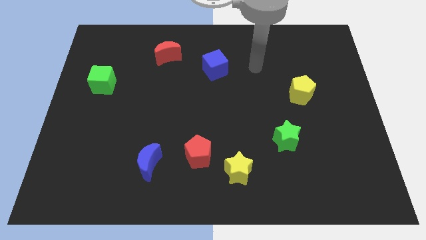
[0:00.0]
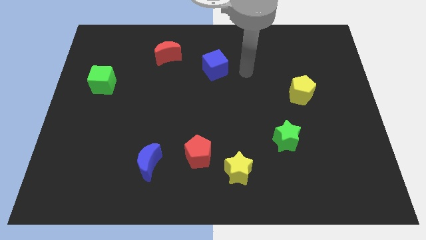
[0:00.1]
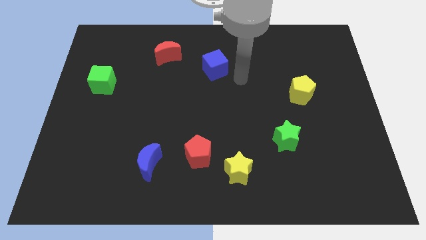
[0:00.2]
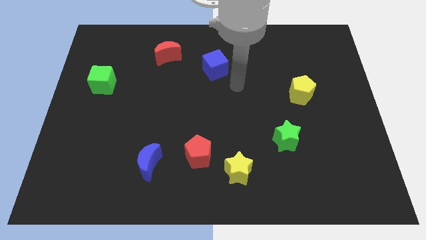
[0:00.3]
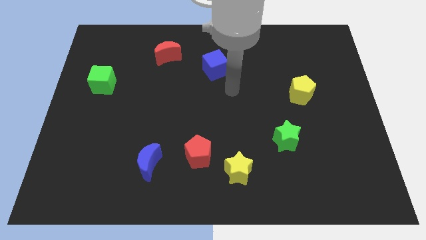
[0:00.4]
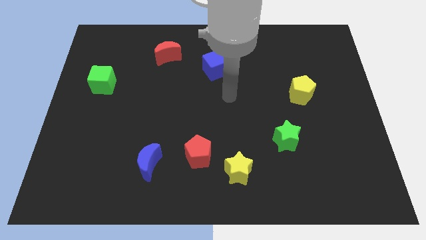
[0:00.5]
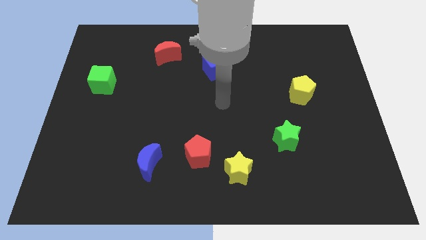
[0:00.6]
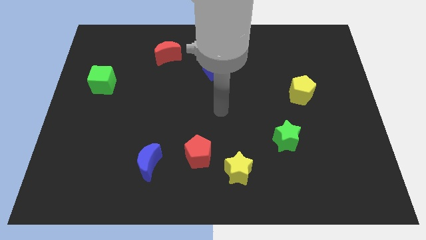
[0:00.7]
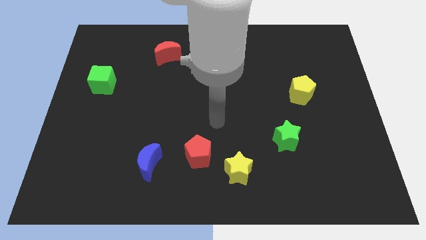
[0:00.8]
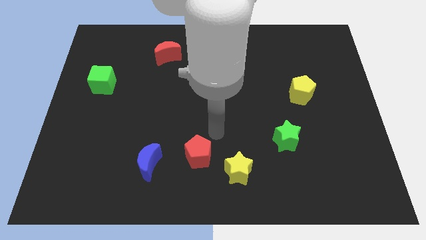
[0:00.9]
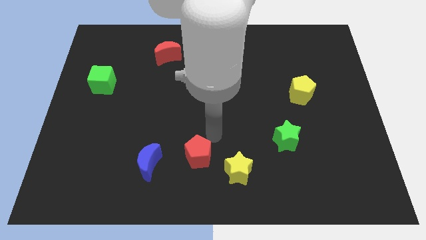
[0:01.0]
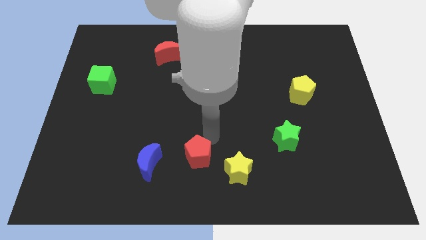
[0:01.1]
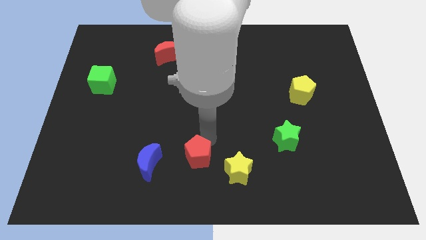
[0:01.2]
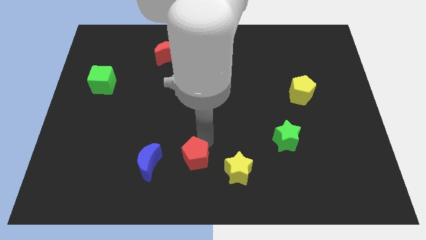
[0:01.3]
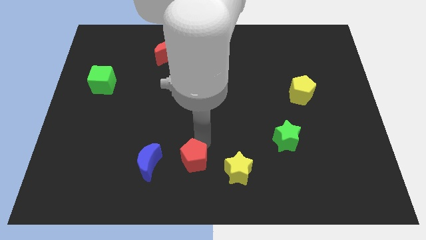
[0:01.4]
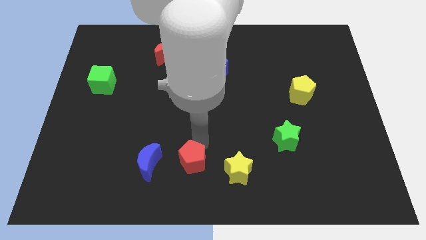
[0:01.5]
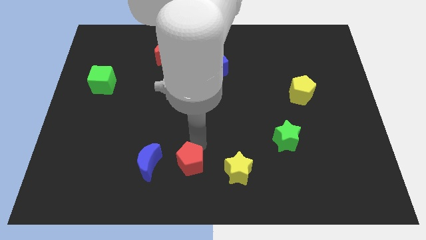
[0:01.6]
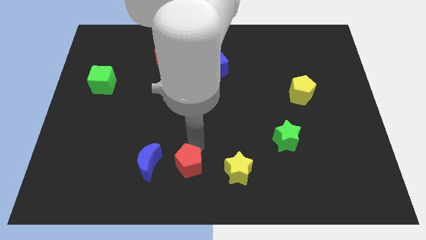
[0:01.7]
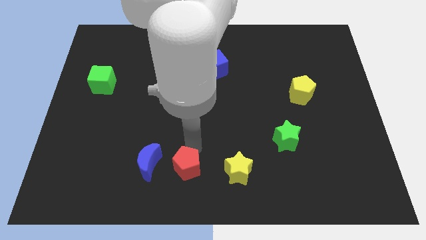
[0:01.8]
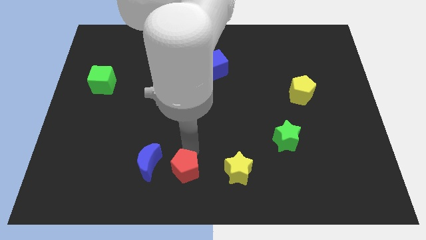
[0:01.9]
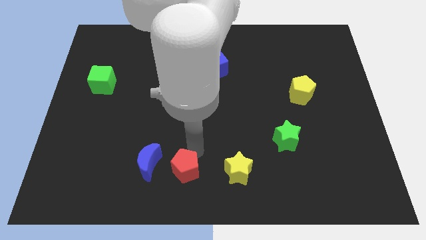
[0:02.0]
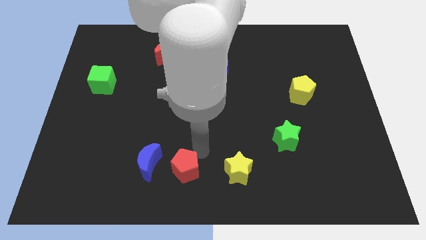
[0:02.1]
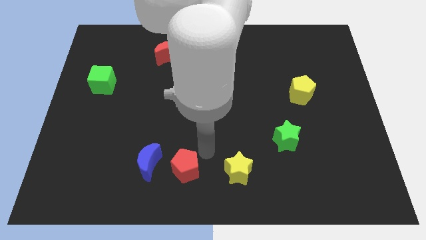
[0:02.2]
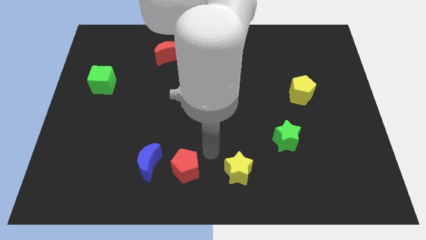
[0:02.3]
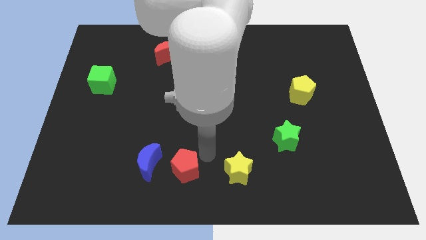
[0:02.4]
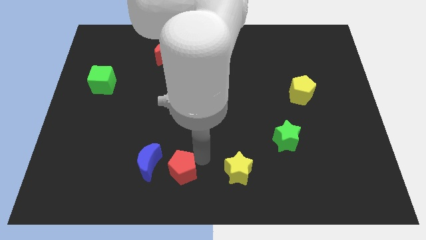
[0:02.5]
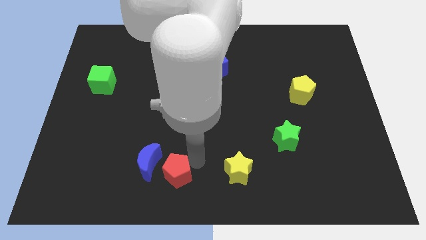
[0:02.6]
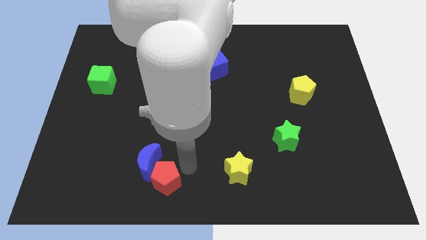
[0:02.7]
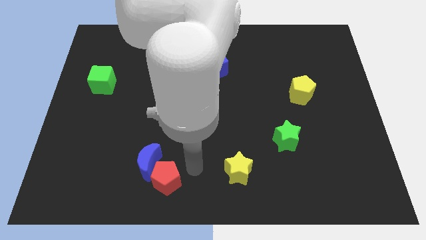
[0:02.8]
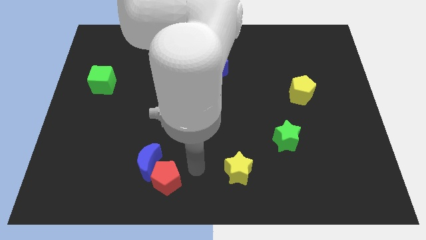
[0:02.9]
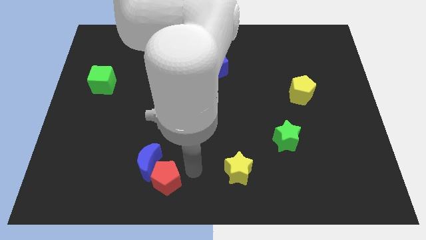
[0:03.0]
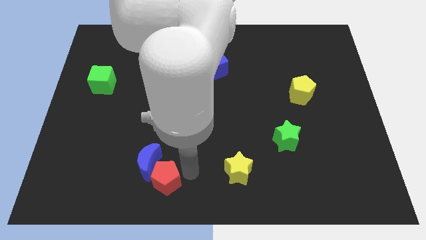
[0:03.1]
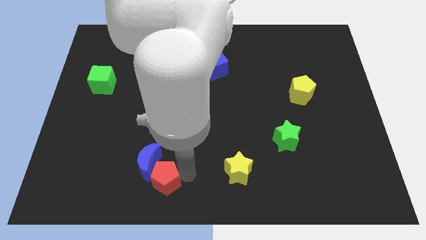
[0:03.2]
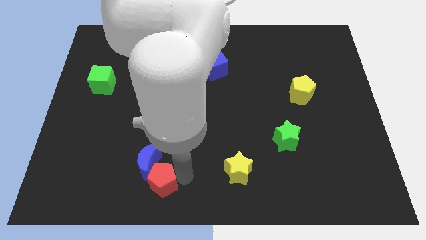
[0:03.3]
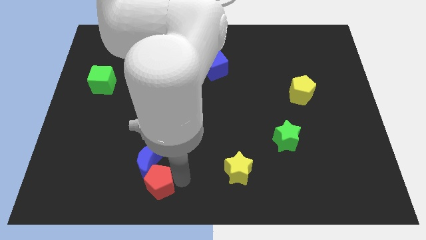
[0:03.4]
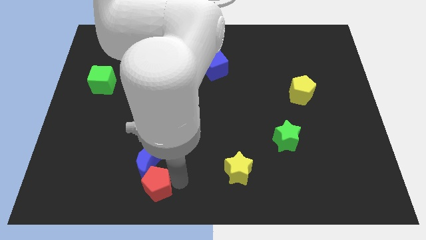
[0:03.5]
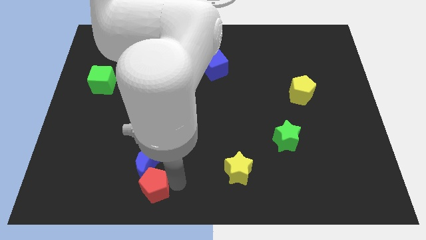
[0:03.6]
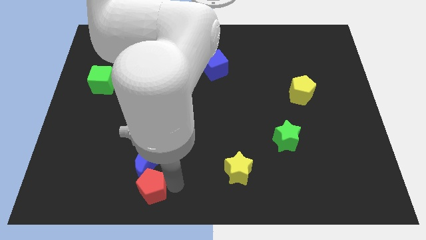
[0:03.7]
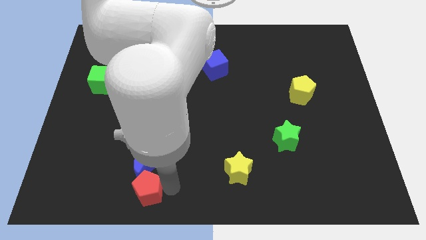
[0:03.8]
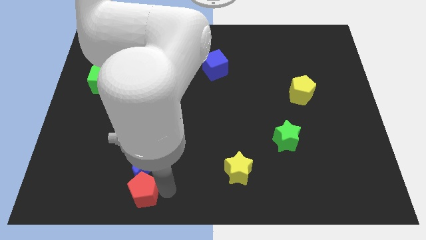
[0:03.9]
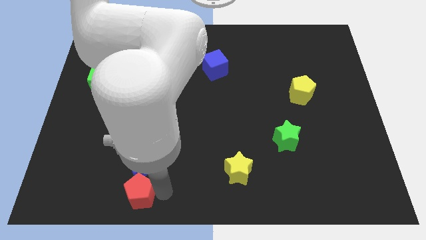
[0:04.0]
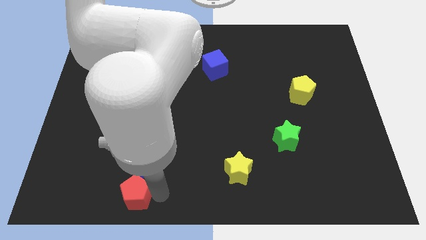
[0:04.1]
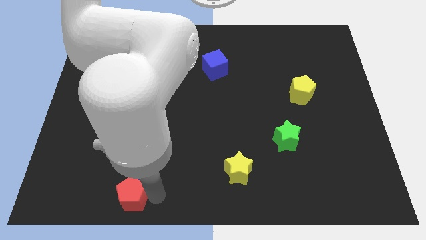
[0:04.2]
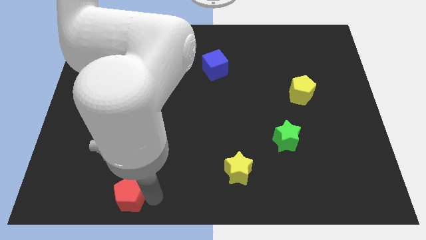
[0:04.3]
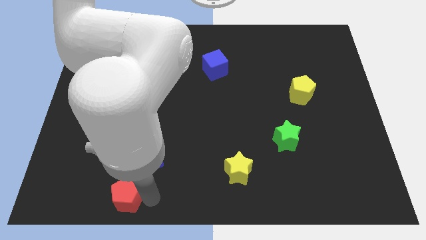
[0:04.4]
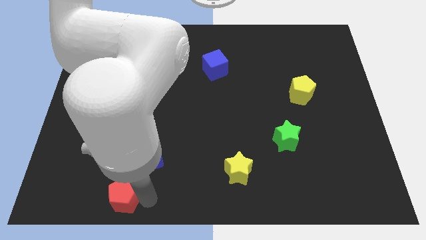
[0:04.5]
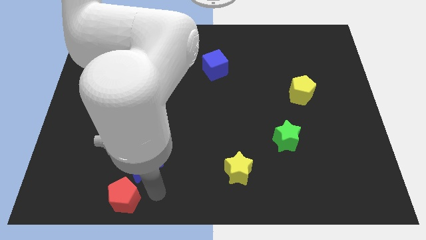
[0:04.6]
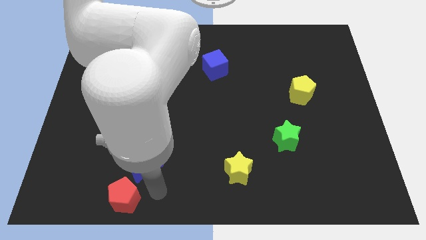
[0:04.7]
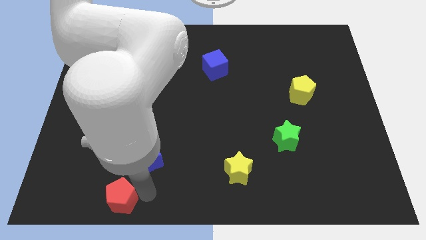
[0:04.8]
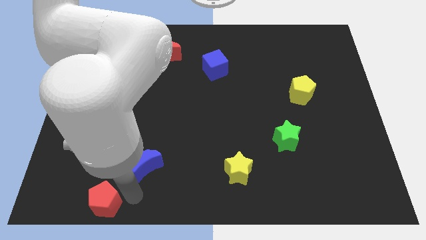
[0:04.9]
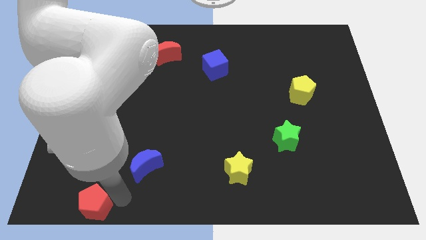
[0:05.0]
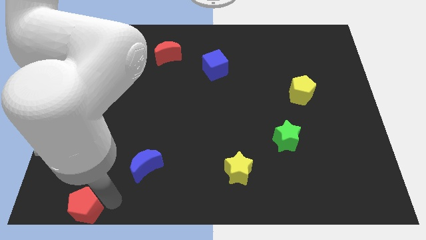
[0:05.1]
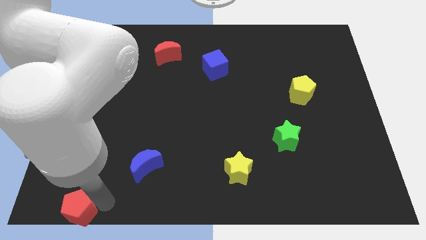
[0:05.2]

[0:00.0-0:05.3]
move the red pentagon to the bottom left of the board
